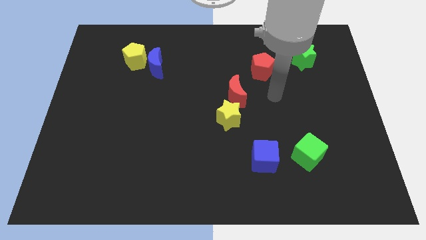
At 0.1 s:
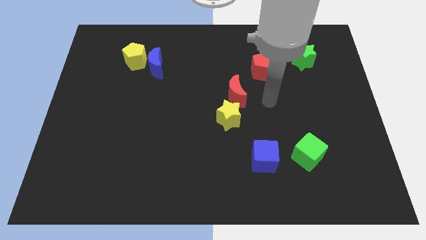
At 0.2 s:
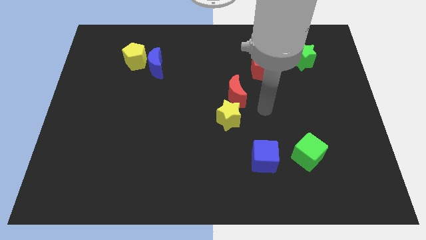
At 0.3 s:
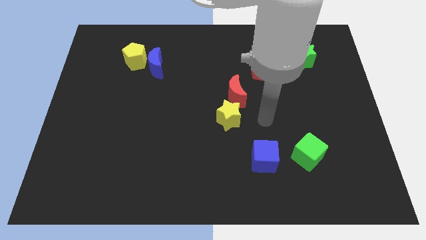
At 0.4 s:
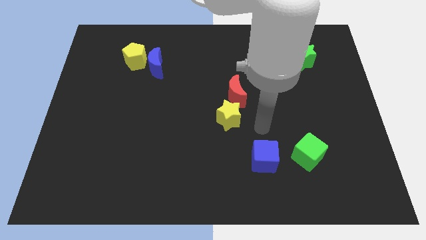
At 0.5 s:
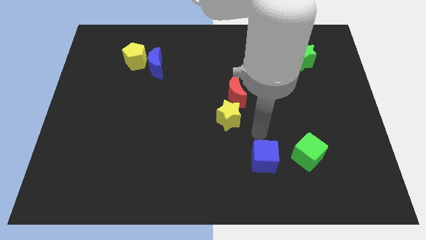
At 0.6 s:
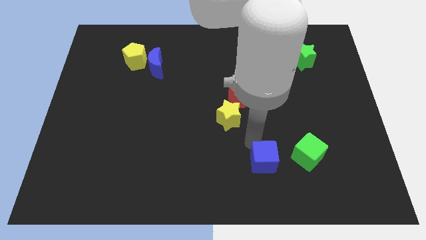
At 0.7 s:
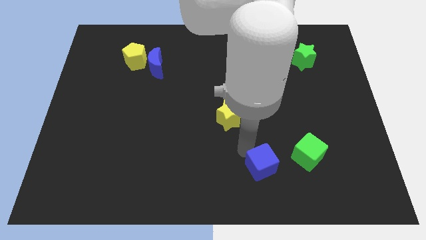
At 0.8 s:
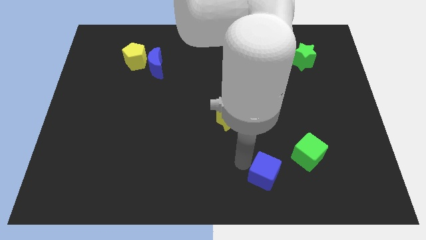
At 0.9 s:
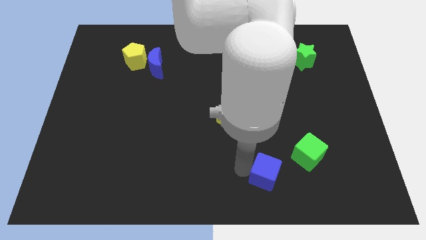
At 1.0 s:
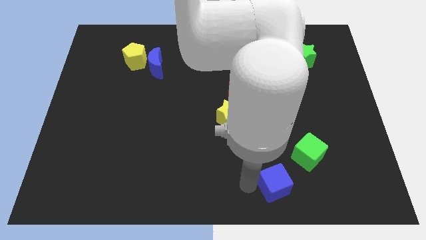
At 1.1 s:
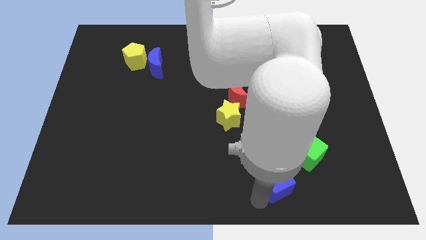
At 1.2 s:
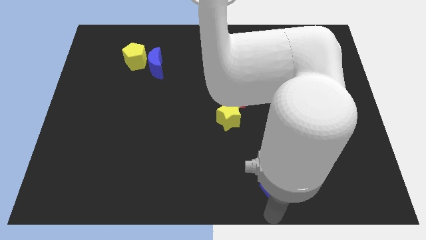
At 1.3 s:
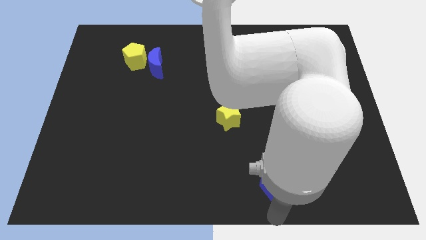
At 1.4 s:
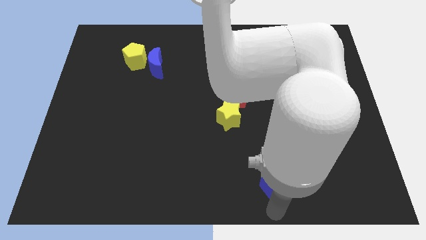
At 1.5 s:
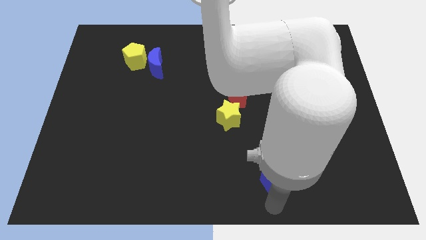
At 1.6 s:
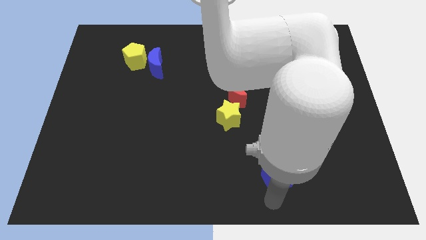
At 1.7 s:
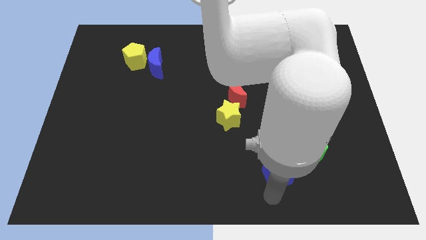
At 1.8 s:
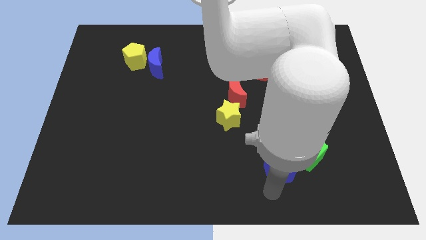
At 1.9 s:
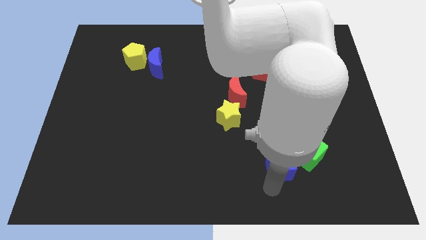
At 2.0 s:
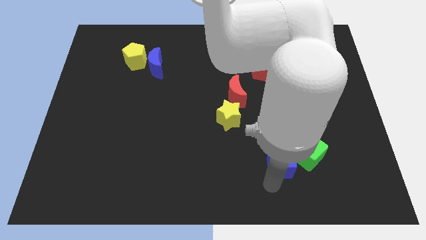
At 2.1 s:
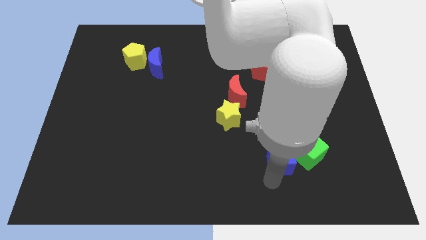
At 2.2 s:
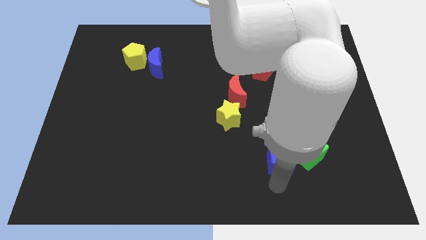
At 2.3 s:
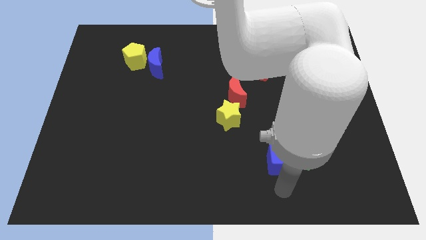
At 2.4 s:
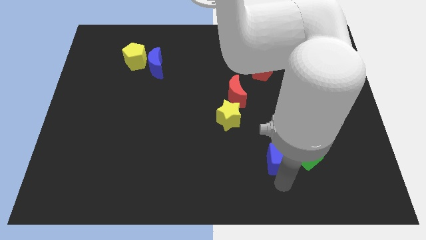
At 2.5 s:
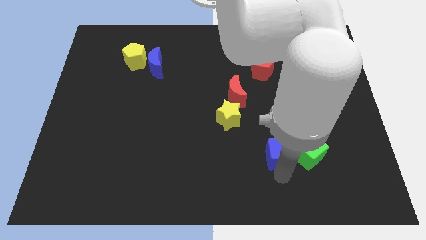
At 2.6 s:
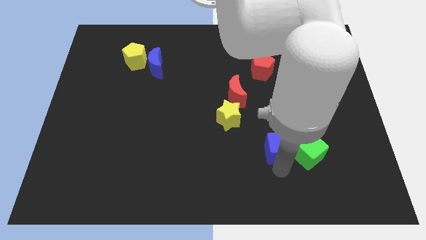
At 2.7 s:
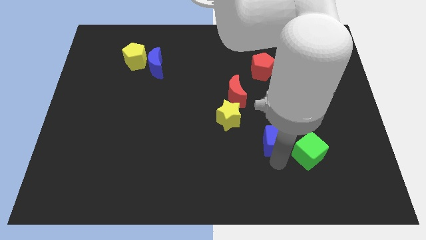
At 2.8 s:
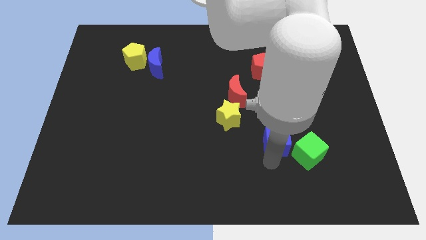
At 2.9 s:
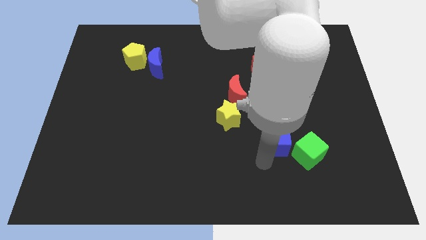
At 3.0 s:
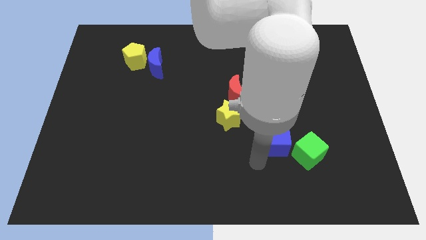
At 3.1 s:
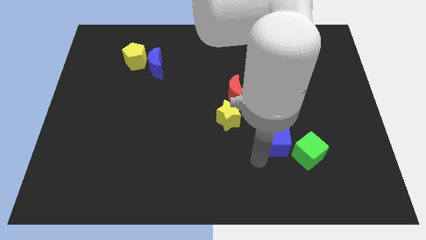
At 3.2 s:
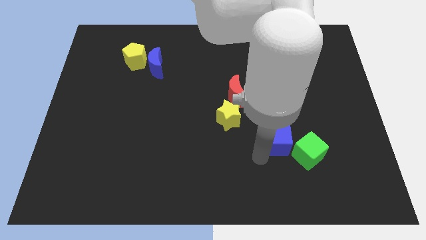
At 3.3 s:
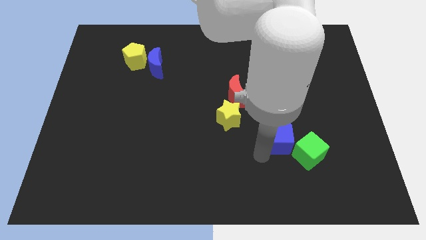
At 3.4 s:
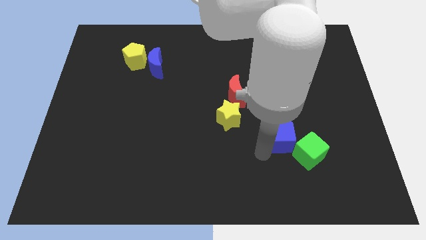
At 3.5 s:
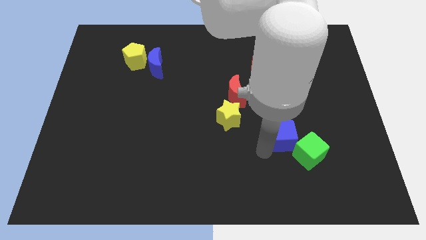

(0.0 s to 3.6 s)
push the blue cube somewhat upwards and to the right diagonally

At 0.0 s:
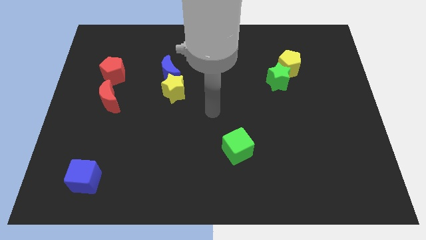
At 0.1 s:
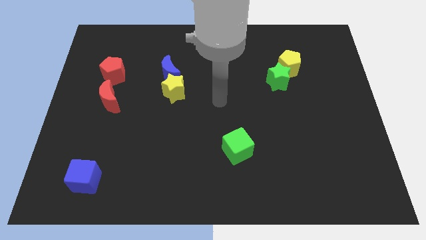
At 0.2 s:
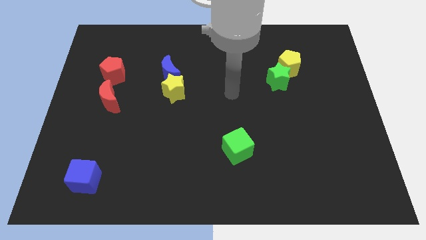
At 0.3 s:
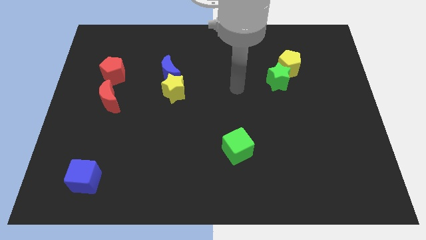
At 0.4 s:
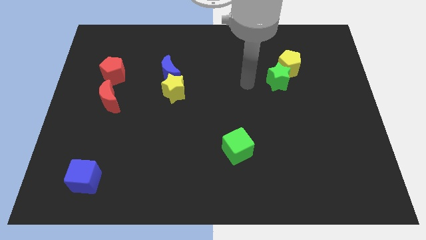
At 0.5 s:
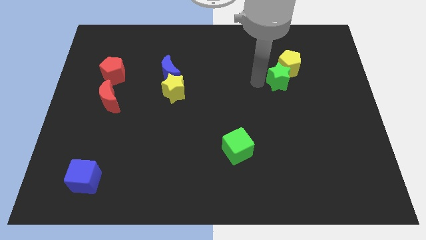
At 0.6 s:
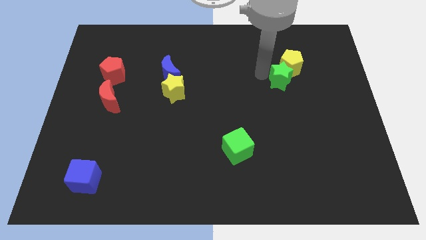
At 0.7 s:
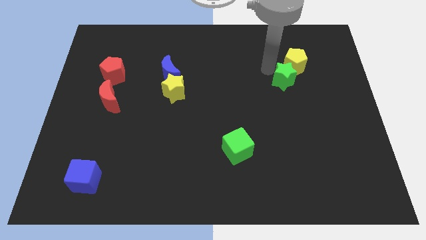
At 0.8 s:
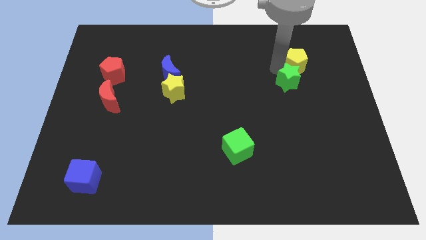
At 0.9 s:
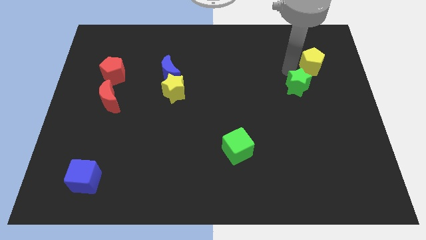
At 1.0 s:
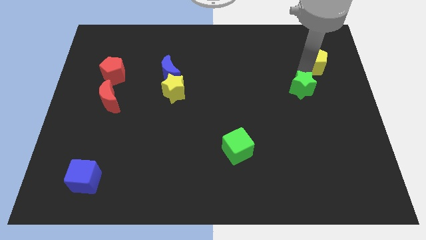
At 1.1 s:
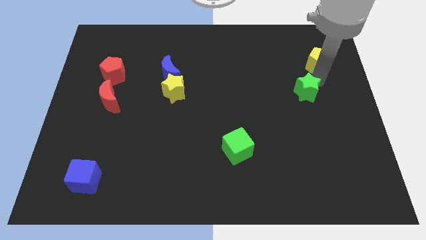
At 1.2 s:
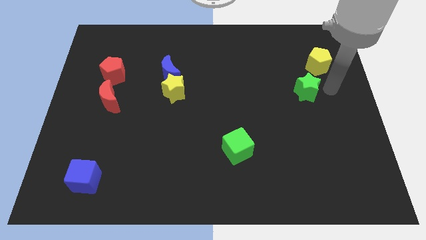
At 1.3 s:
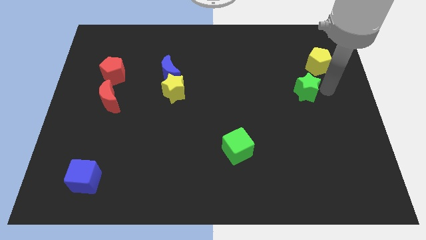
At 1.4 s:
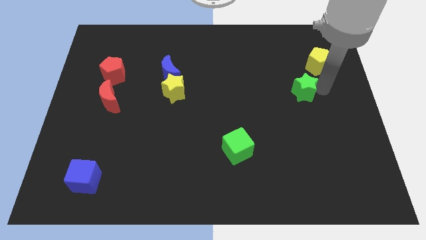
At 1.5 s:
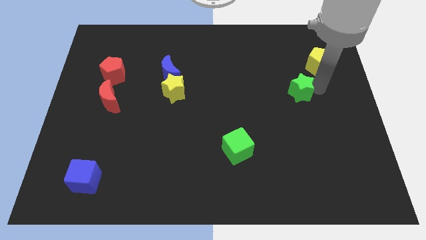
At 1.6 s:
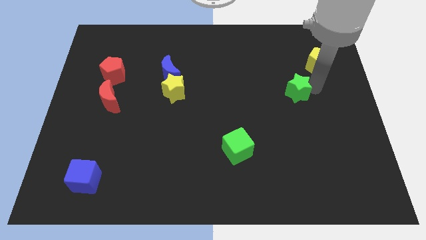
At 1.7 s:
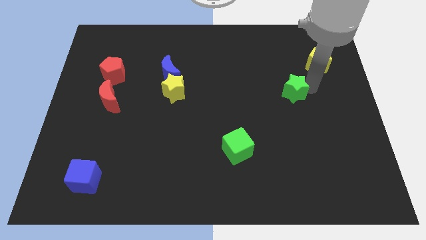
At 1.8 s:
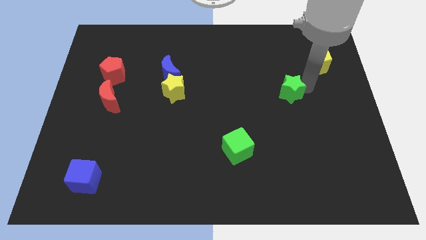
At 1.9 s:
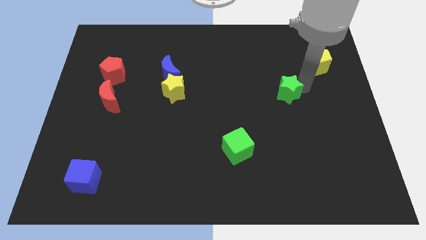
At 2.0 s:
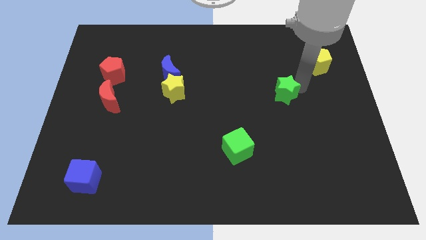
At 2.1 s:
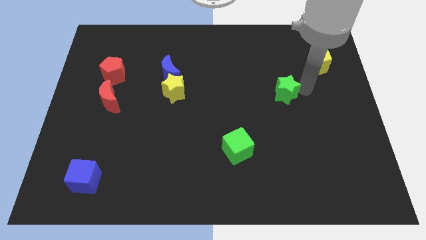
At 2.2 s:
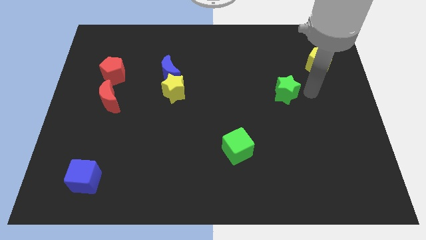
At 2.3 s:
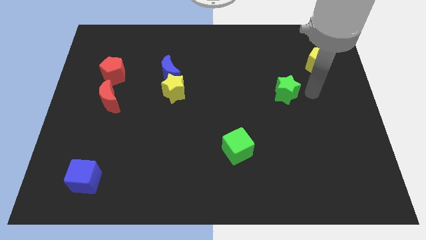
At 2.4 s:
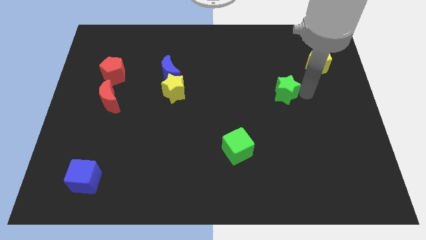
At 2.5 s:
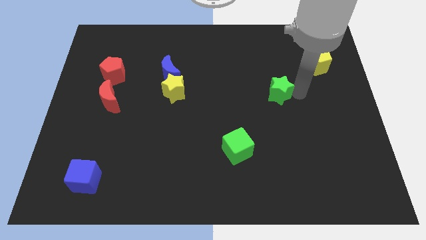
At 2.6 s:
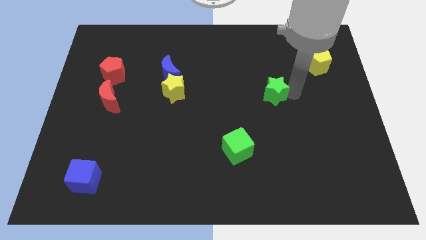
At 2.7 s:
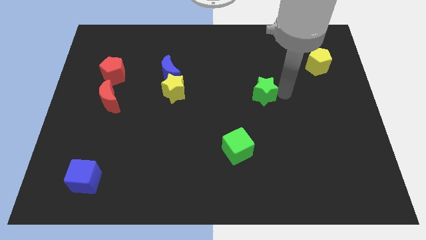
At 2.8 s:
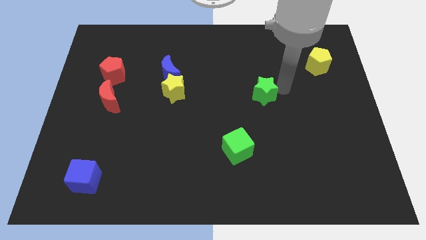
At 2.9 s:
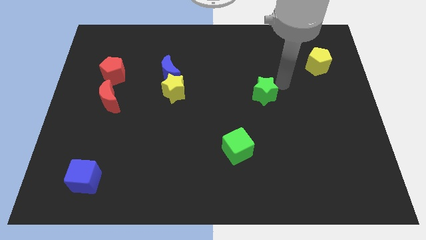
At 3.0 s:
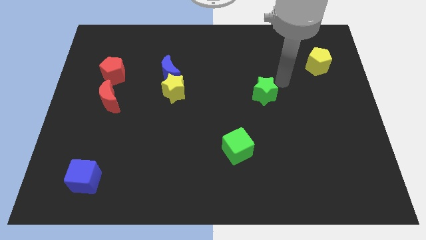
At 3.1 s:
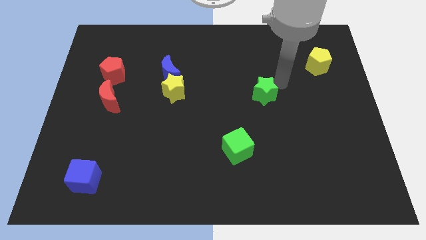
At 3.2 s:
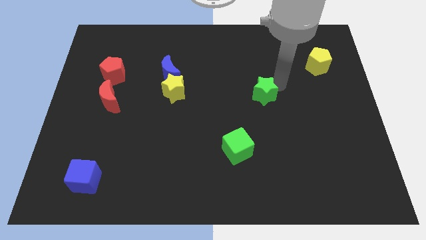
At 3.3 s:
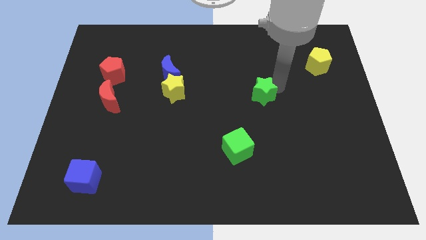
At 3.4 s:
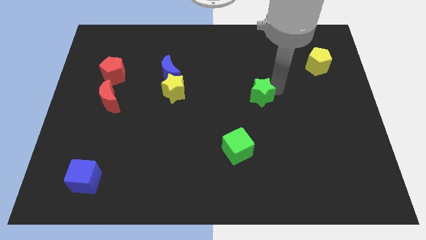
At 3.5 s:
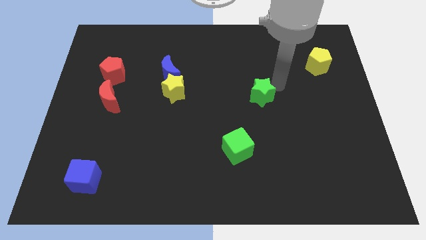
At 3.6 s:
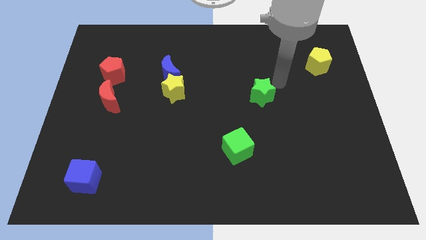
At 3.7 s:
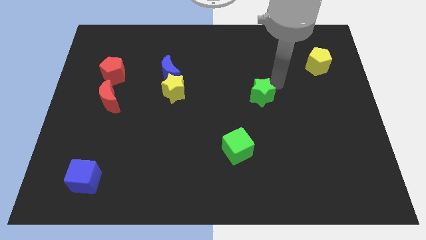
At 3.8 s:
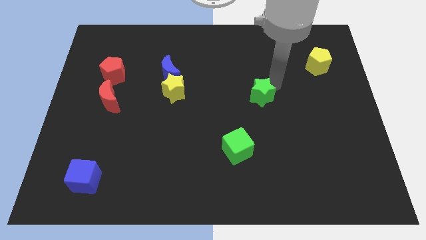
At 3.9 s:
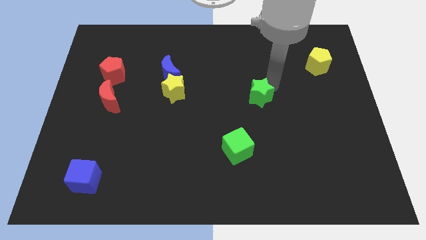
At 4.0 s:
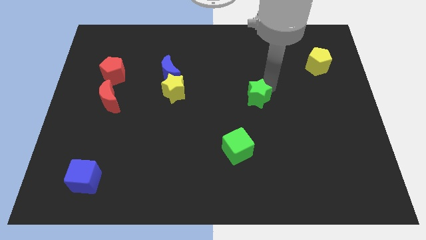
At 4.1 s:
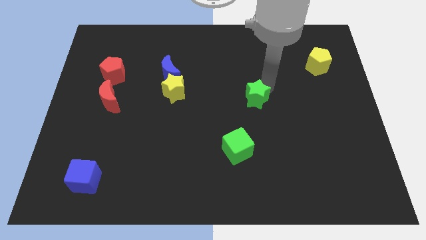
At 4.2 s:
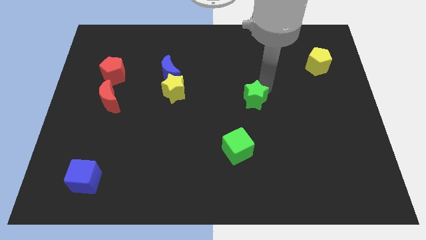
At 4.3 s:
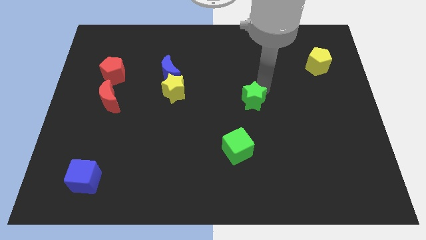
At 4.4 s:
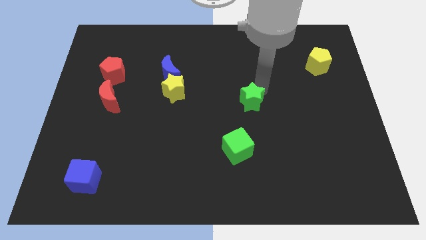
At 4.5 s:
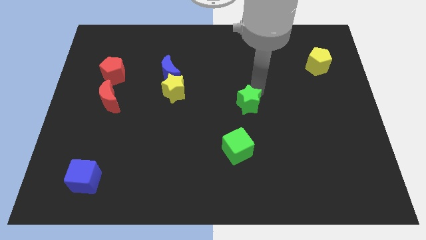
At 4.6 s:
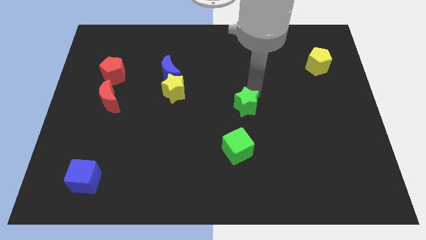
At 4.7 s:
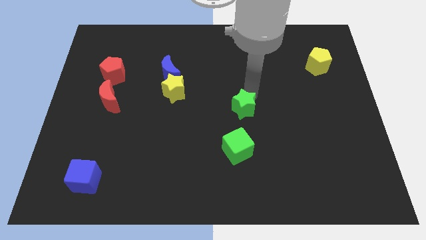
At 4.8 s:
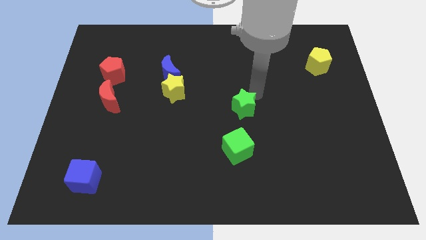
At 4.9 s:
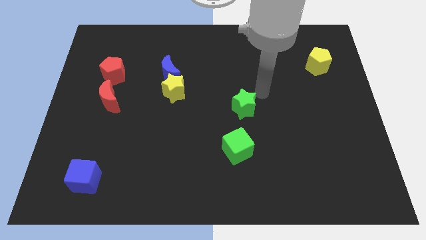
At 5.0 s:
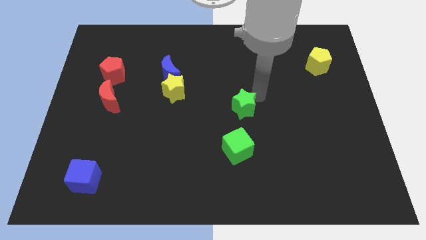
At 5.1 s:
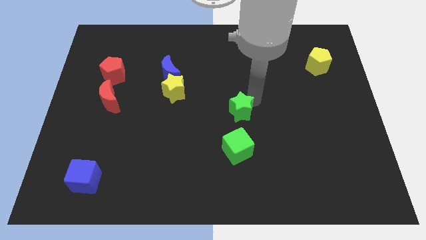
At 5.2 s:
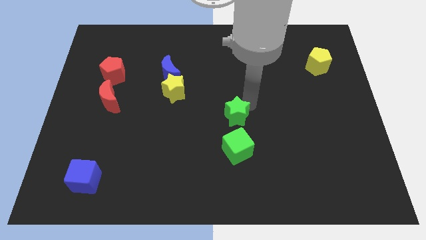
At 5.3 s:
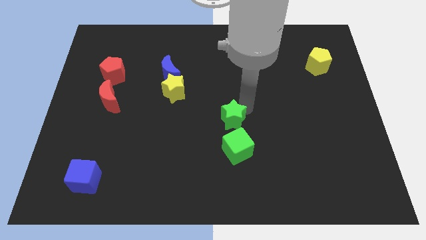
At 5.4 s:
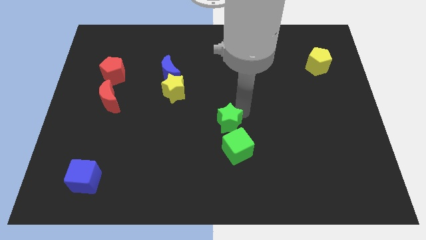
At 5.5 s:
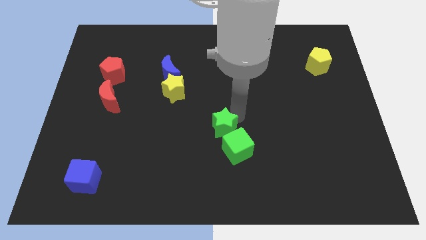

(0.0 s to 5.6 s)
move the green star downwards and to the left
